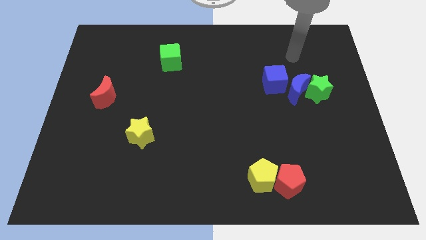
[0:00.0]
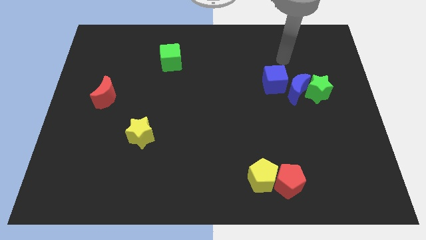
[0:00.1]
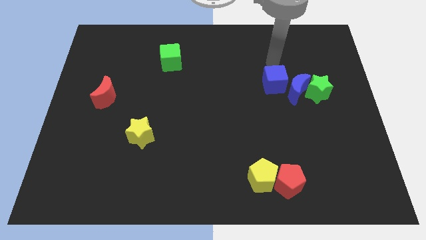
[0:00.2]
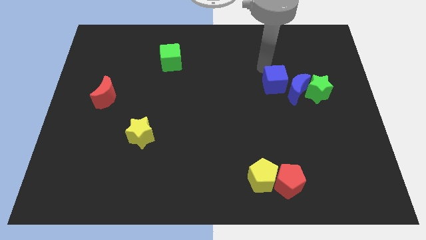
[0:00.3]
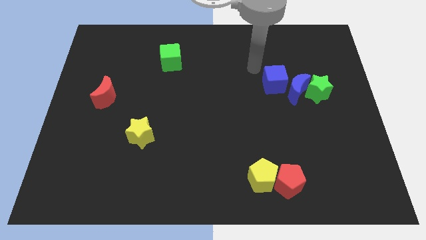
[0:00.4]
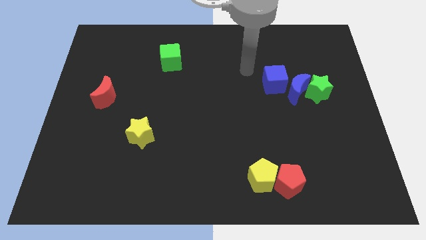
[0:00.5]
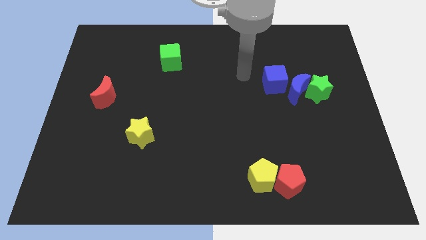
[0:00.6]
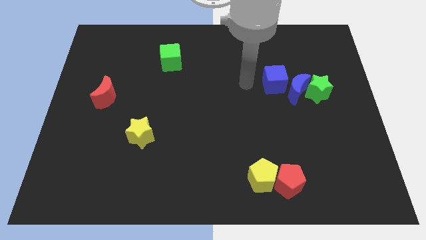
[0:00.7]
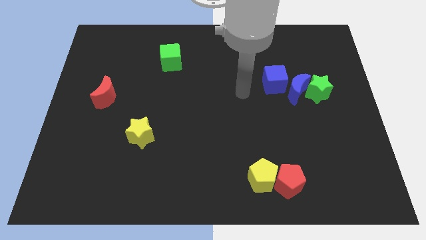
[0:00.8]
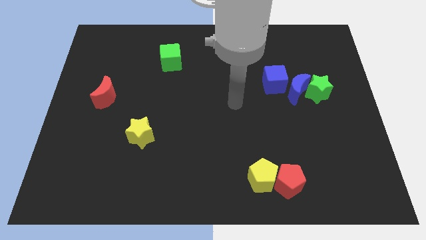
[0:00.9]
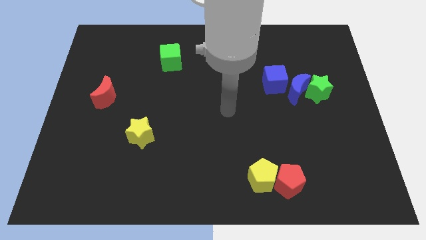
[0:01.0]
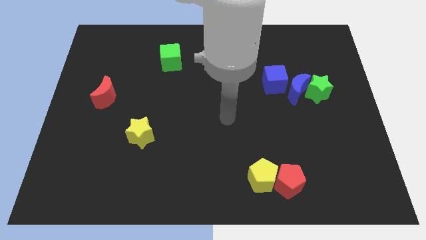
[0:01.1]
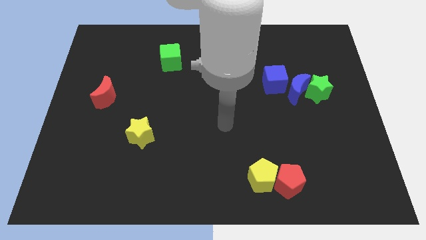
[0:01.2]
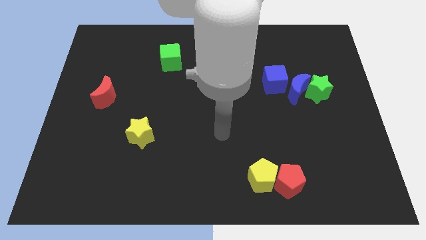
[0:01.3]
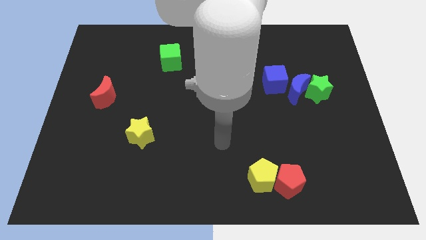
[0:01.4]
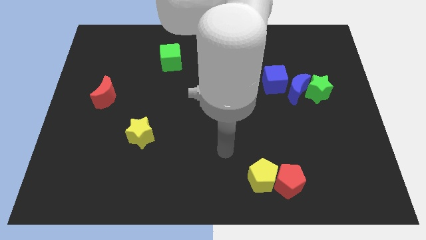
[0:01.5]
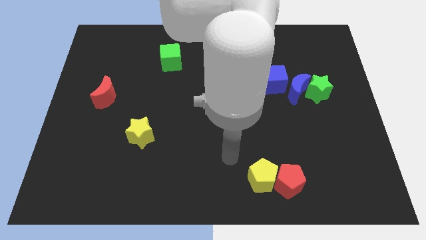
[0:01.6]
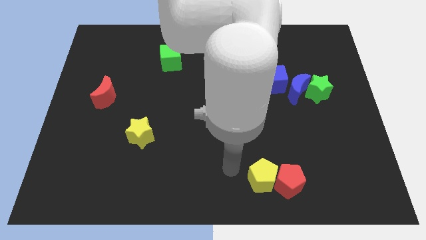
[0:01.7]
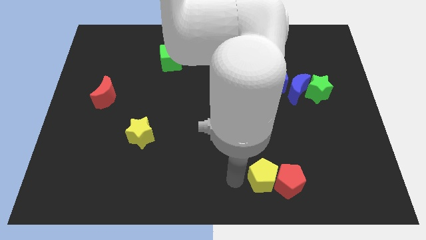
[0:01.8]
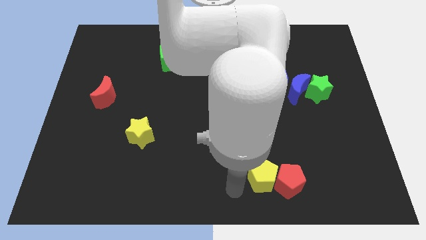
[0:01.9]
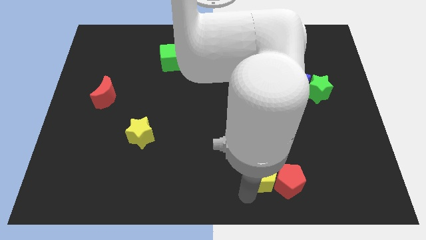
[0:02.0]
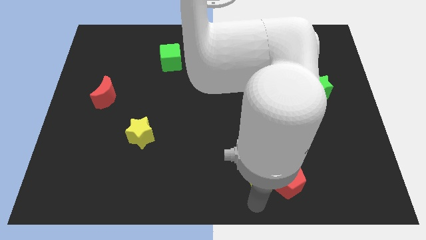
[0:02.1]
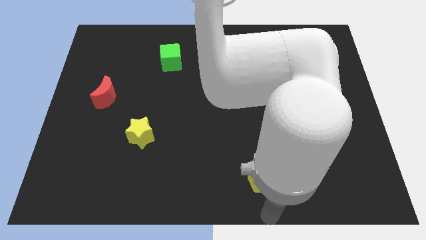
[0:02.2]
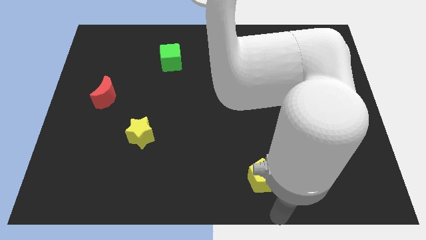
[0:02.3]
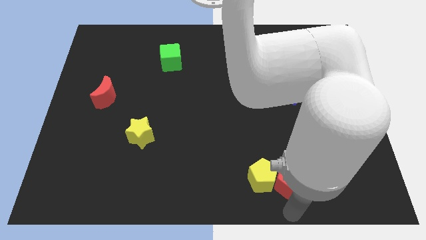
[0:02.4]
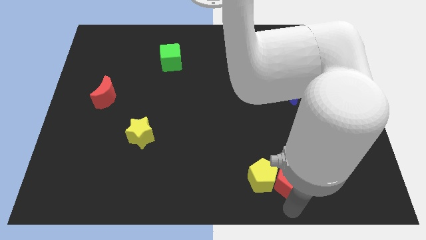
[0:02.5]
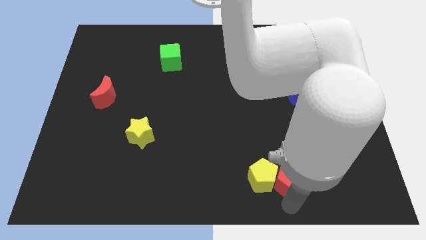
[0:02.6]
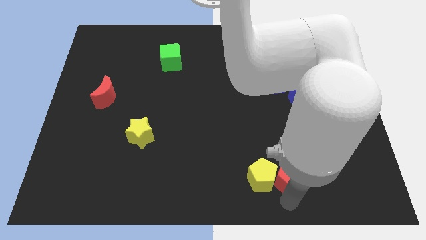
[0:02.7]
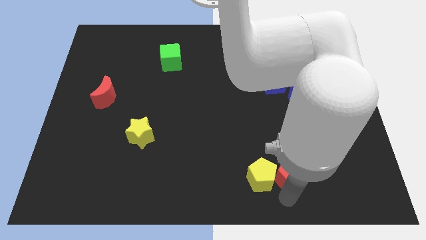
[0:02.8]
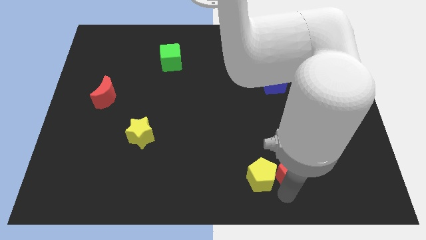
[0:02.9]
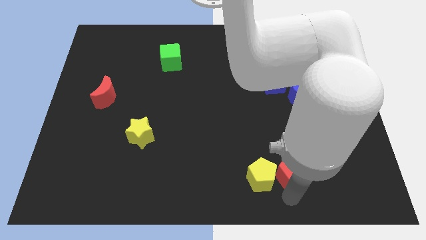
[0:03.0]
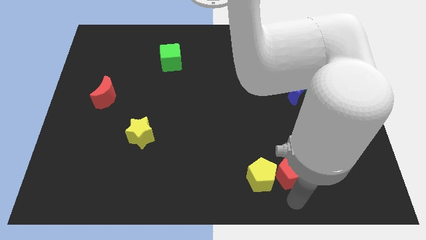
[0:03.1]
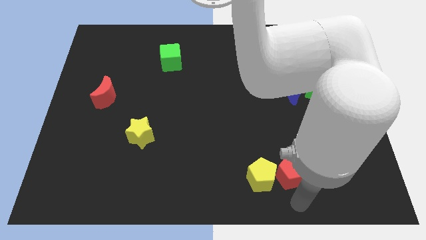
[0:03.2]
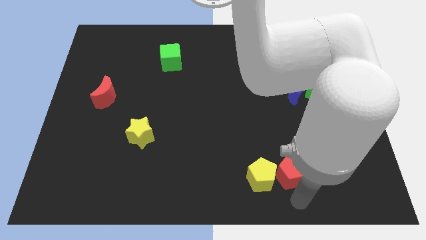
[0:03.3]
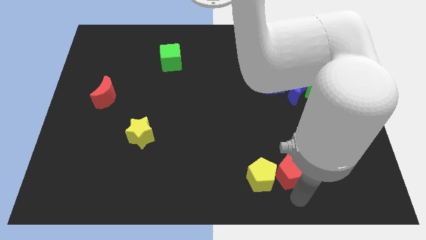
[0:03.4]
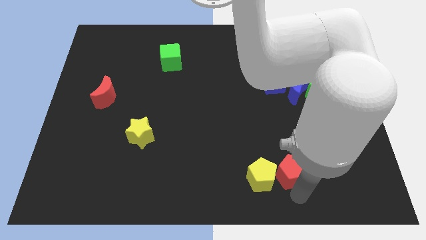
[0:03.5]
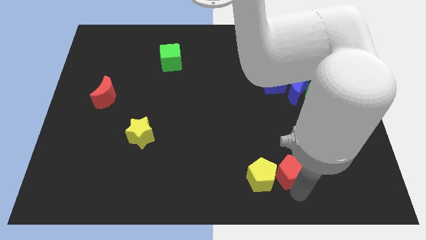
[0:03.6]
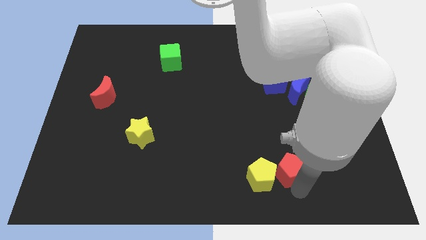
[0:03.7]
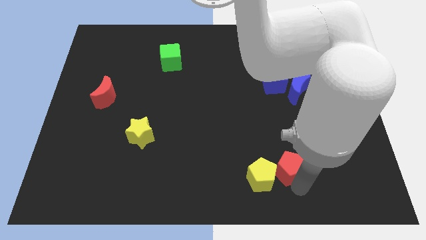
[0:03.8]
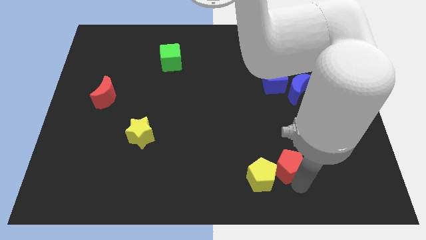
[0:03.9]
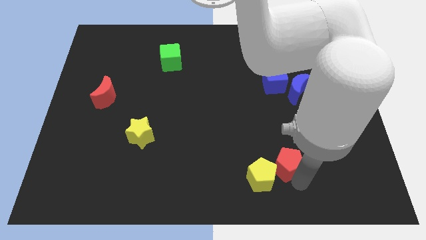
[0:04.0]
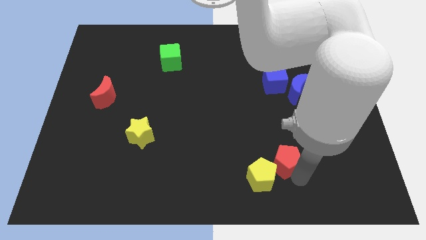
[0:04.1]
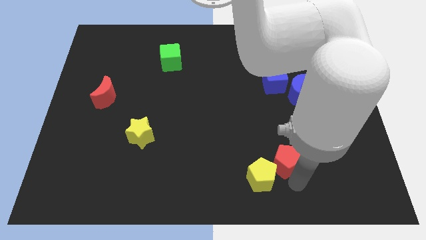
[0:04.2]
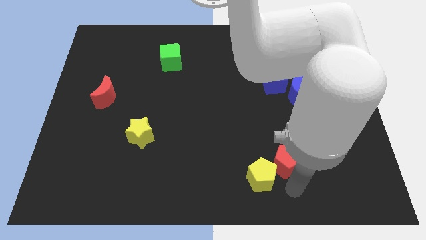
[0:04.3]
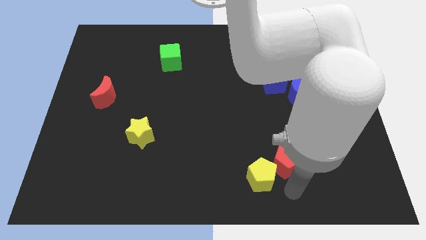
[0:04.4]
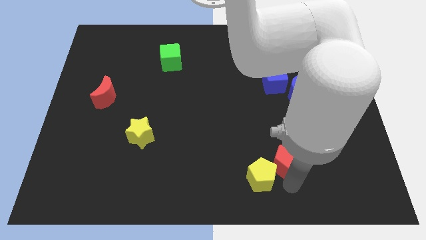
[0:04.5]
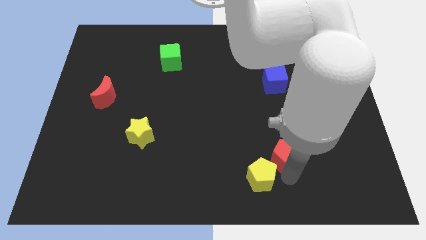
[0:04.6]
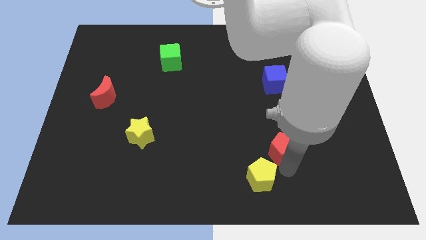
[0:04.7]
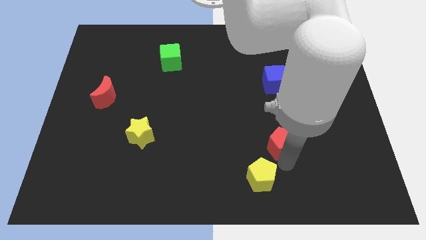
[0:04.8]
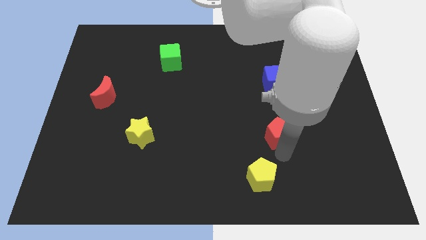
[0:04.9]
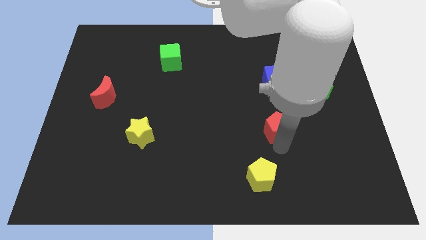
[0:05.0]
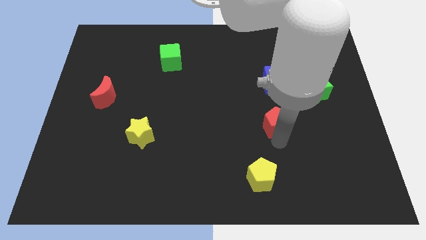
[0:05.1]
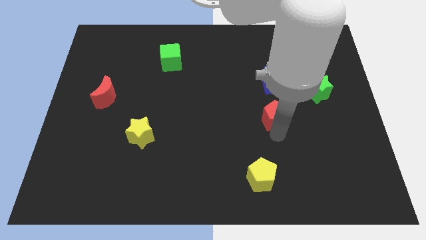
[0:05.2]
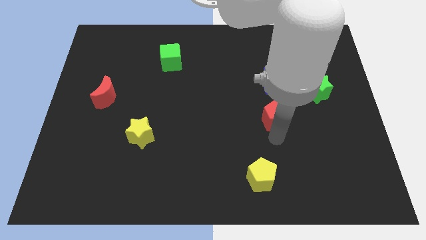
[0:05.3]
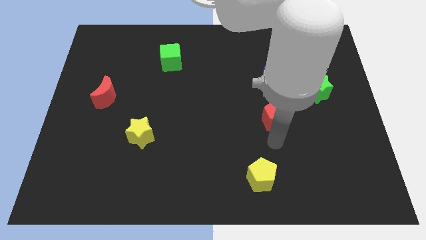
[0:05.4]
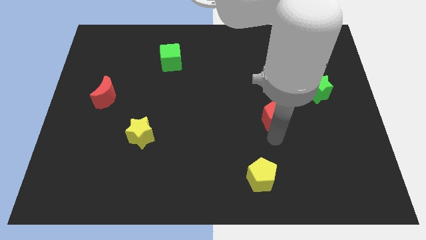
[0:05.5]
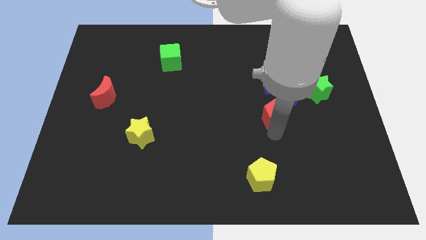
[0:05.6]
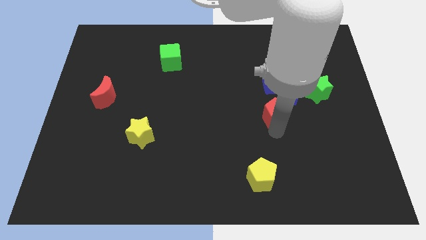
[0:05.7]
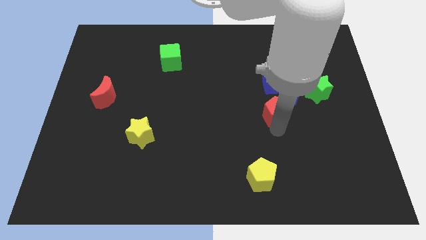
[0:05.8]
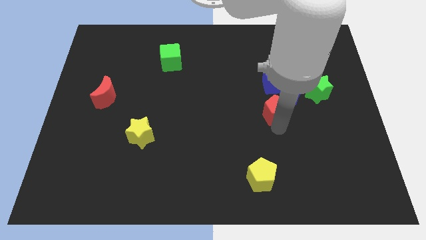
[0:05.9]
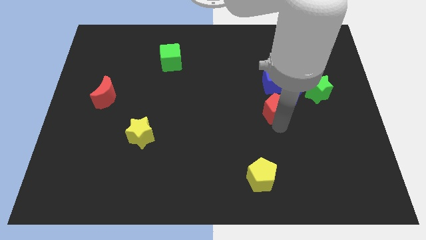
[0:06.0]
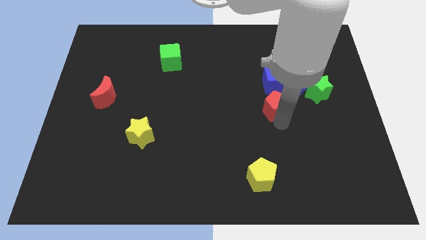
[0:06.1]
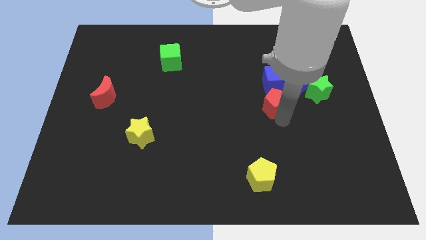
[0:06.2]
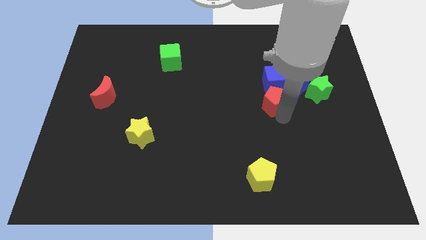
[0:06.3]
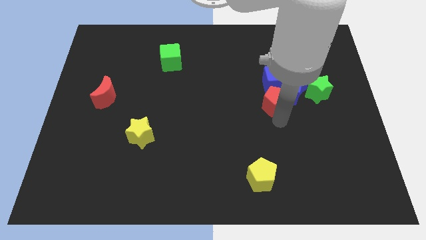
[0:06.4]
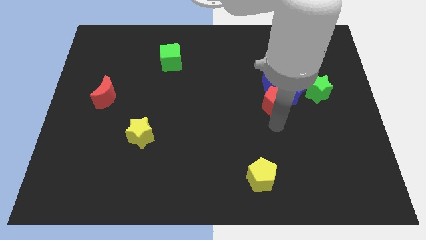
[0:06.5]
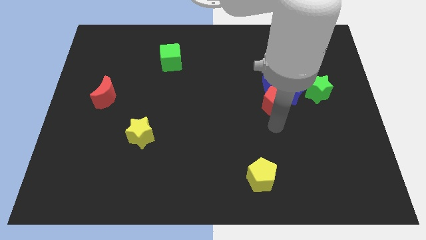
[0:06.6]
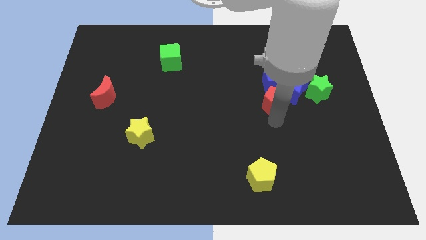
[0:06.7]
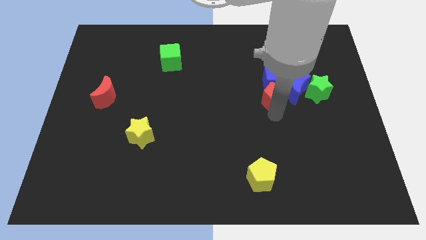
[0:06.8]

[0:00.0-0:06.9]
slide the red pentagon towards the blue cube

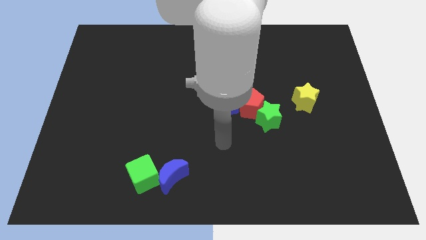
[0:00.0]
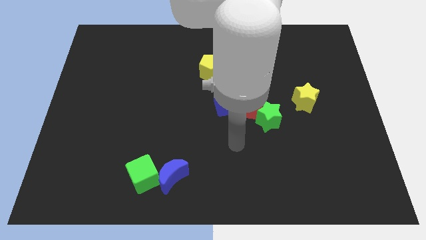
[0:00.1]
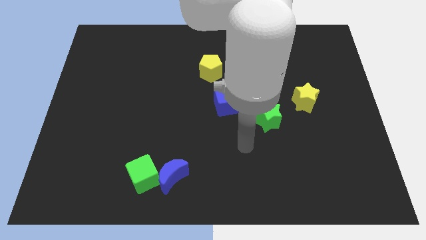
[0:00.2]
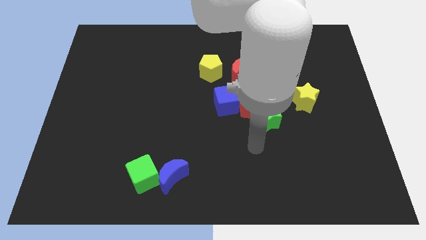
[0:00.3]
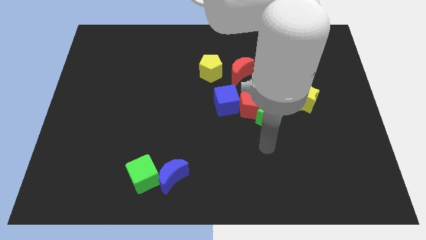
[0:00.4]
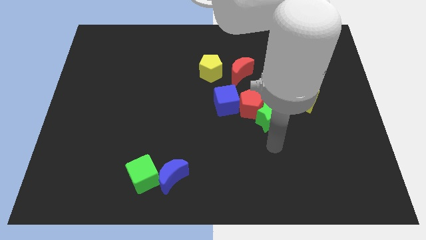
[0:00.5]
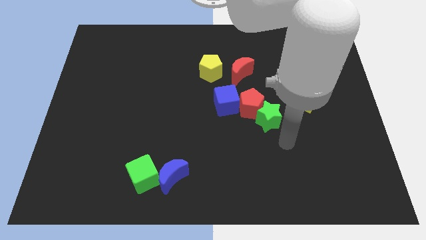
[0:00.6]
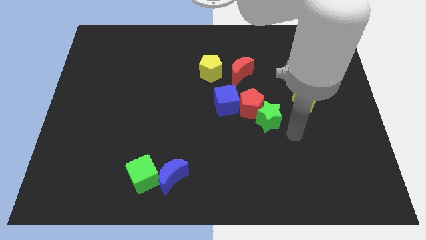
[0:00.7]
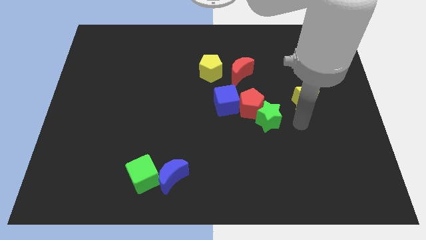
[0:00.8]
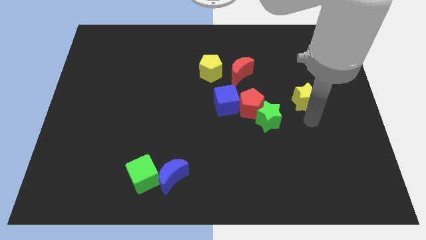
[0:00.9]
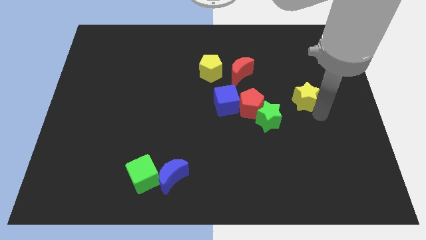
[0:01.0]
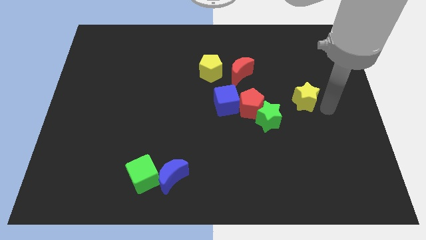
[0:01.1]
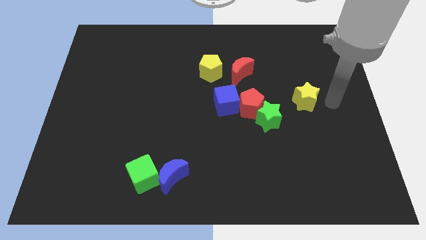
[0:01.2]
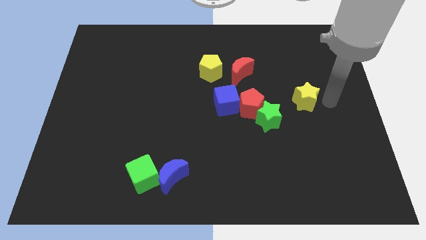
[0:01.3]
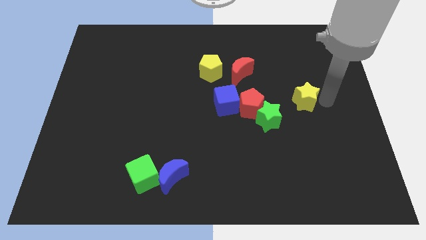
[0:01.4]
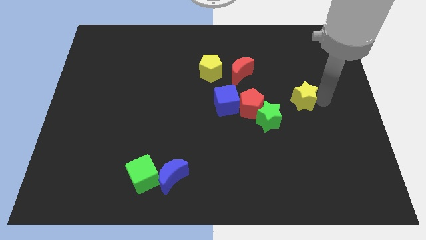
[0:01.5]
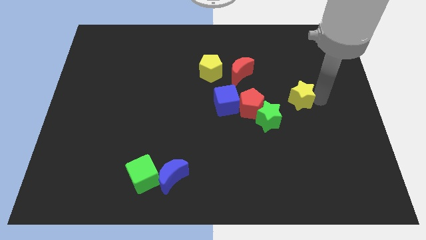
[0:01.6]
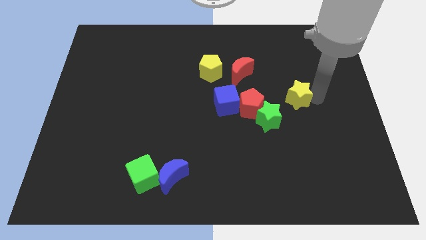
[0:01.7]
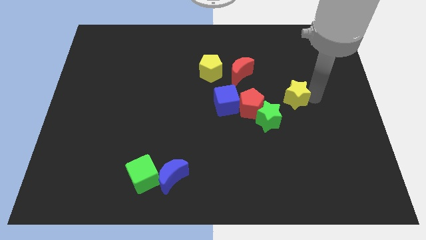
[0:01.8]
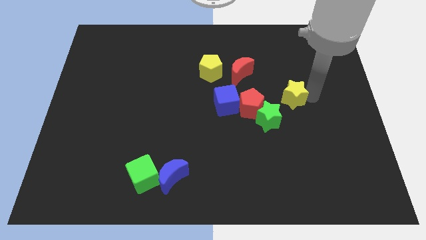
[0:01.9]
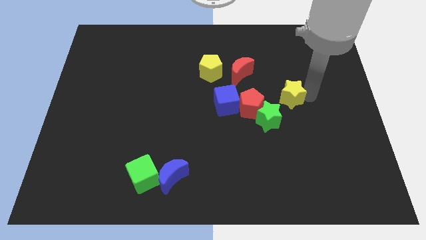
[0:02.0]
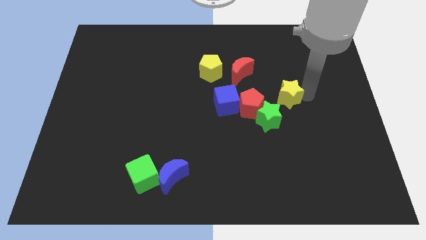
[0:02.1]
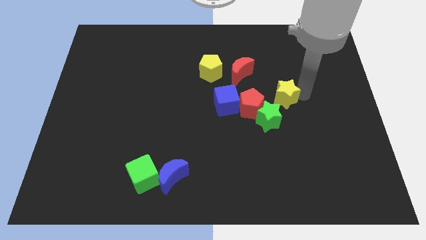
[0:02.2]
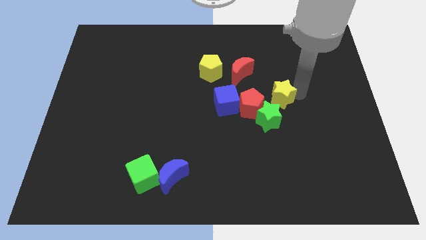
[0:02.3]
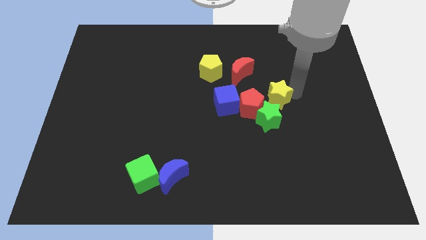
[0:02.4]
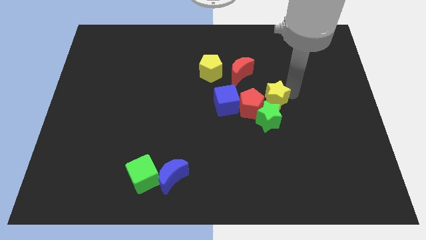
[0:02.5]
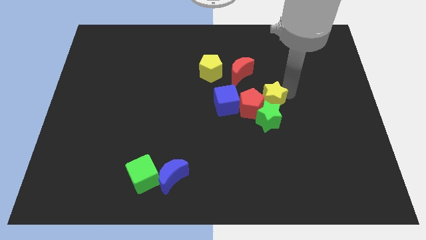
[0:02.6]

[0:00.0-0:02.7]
put the yellow star towards the red pentagon
